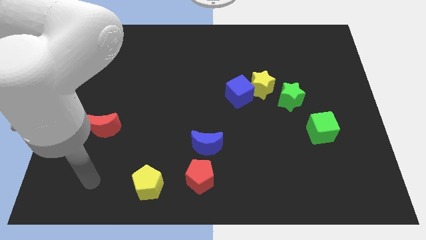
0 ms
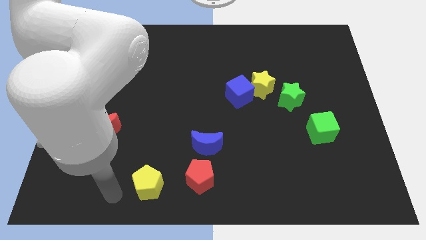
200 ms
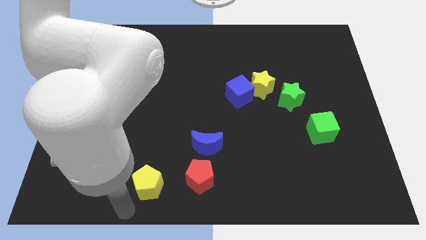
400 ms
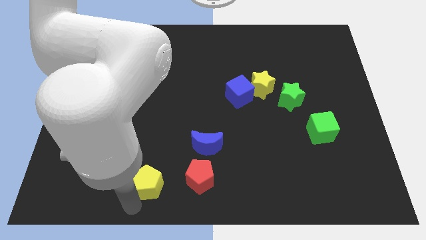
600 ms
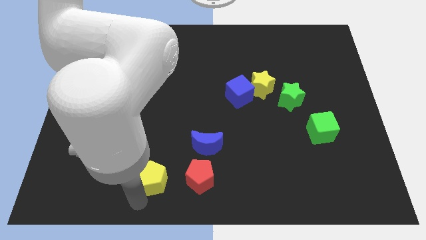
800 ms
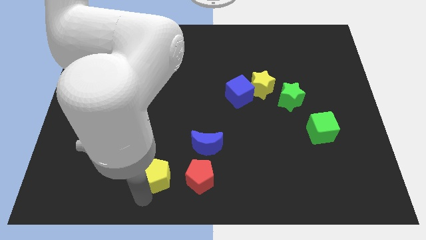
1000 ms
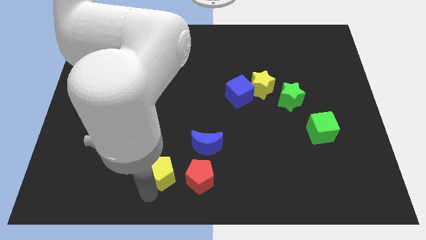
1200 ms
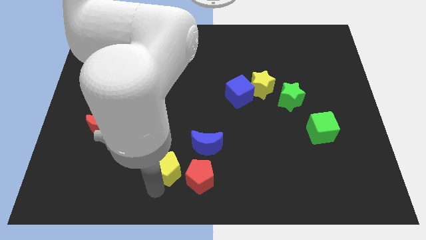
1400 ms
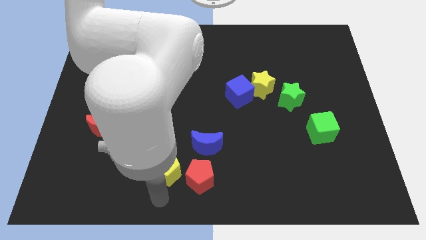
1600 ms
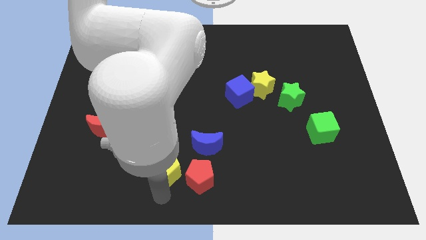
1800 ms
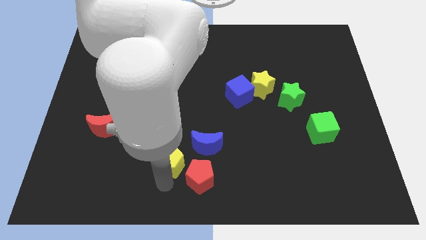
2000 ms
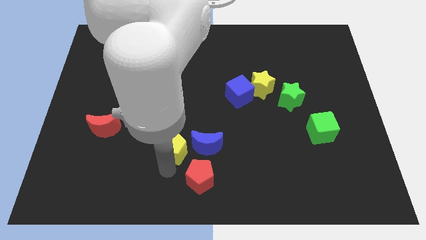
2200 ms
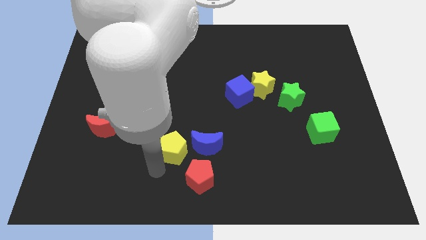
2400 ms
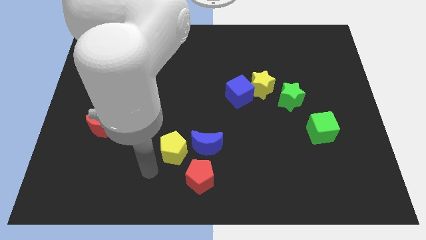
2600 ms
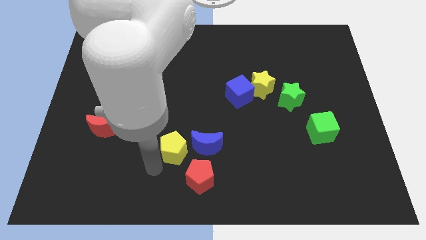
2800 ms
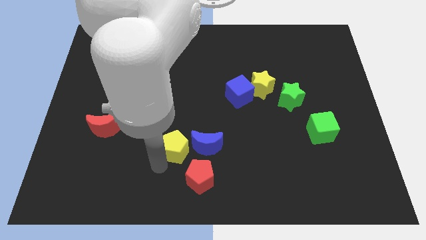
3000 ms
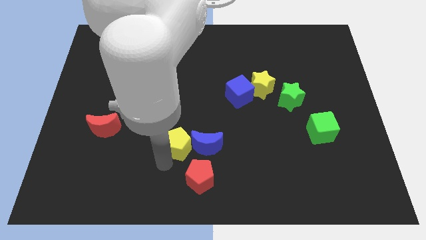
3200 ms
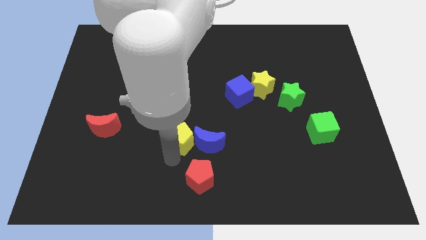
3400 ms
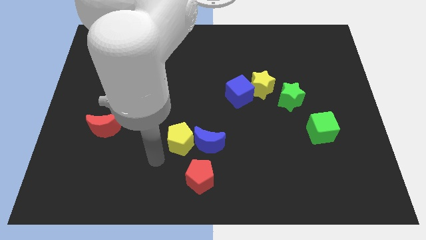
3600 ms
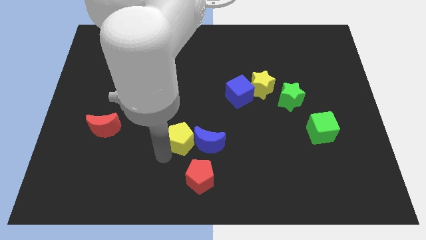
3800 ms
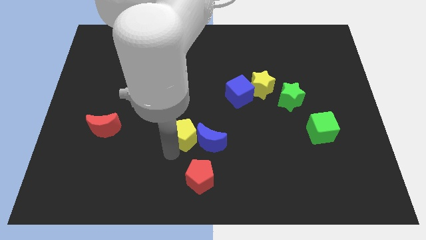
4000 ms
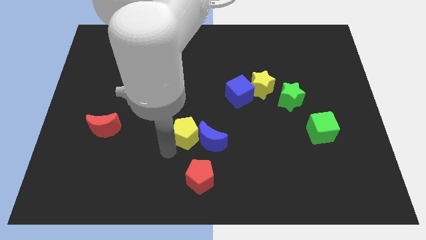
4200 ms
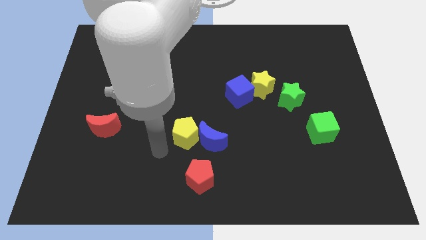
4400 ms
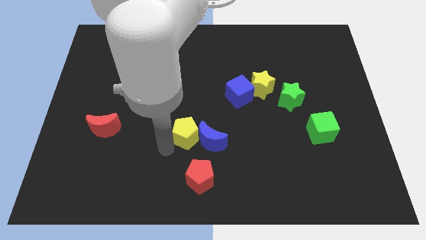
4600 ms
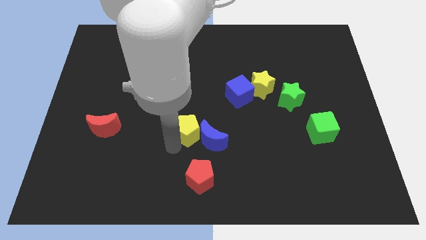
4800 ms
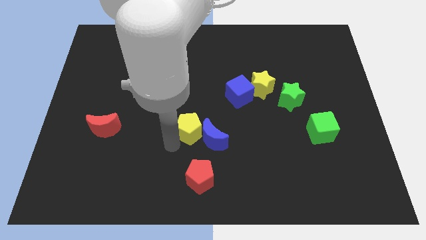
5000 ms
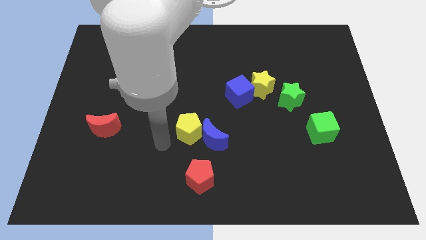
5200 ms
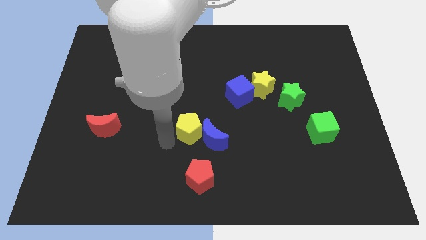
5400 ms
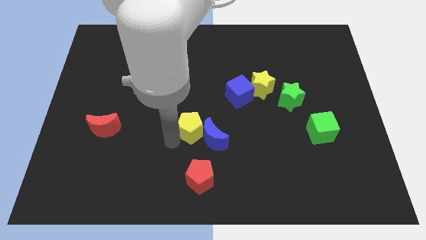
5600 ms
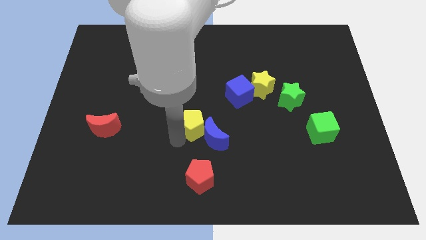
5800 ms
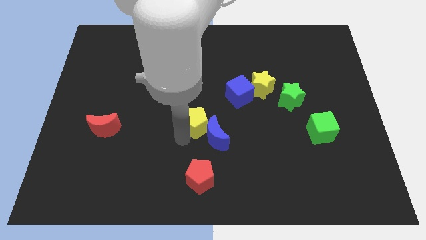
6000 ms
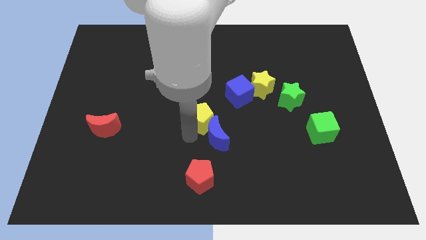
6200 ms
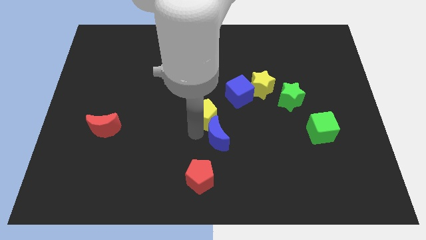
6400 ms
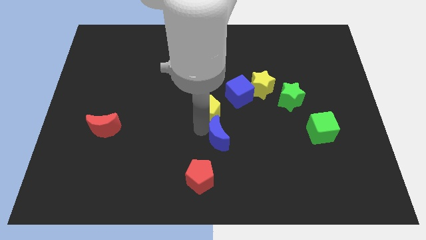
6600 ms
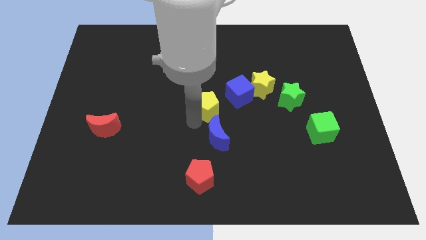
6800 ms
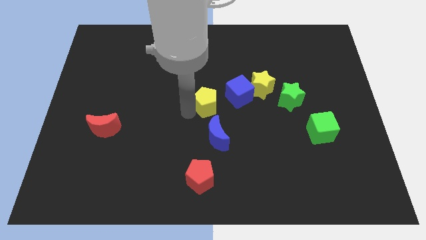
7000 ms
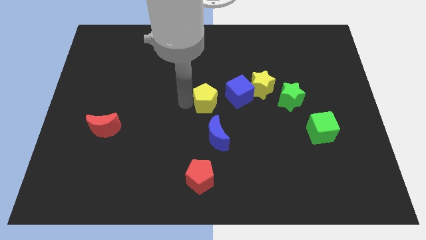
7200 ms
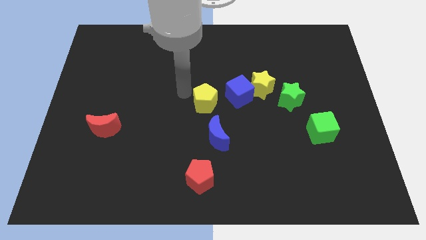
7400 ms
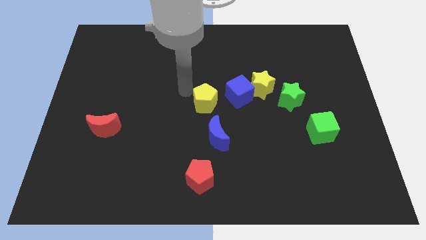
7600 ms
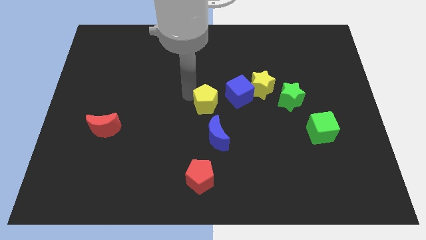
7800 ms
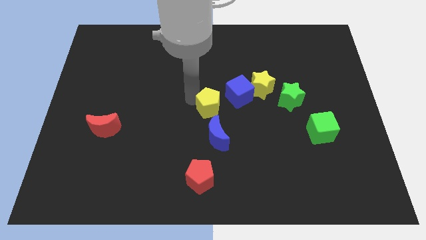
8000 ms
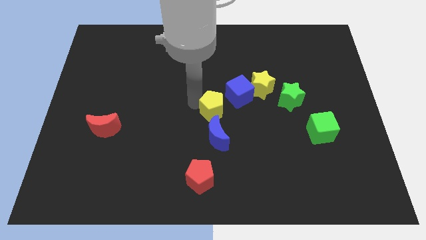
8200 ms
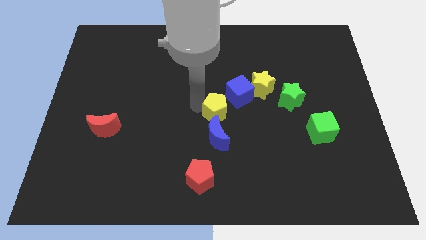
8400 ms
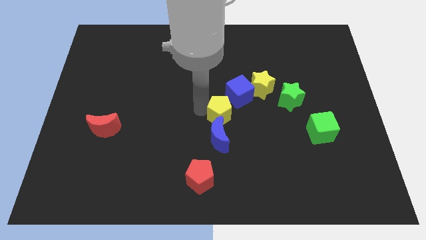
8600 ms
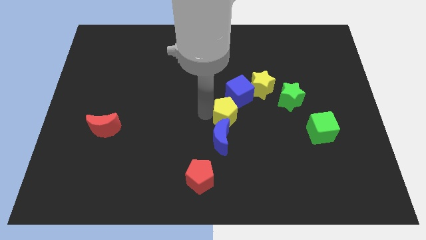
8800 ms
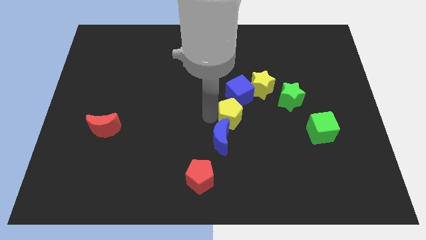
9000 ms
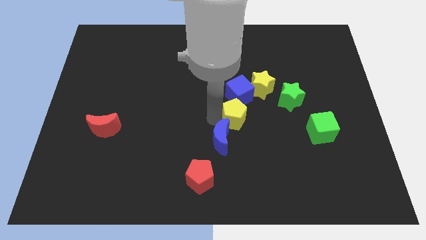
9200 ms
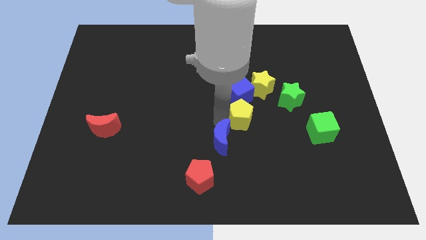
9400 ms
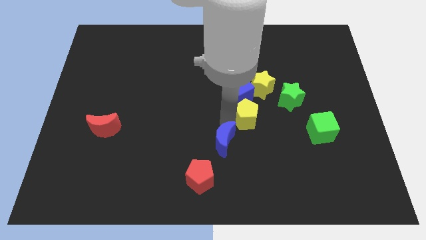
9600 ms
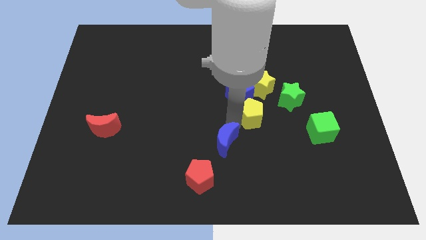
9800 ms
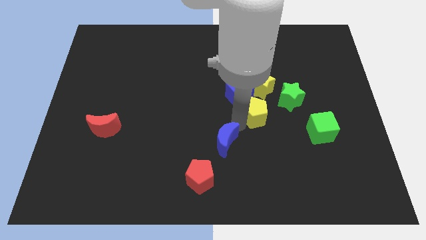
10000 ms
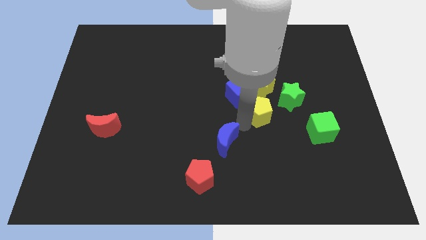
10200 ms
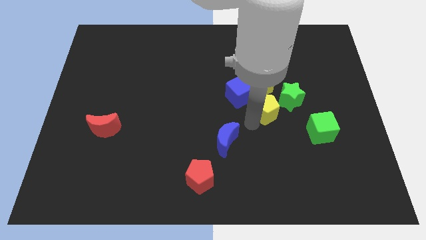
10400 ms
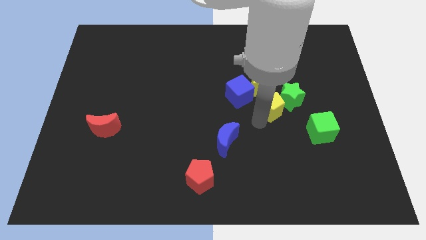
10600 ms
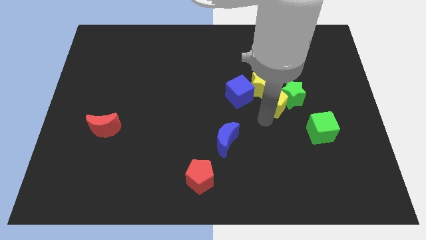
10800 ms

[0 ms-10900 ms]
put the yellow pentagon to the yellow star

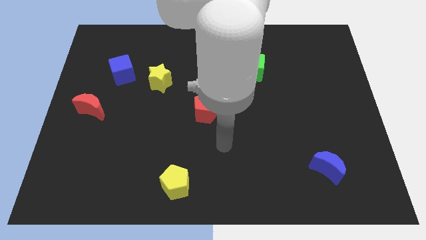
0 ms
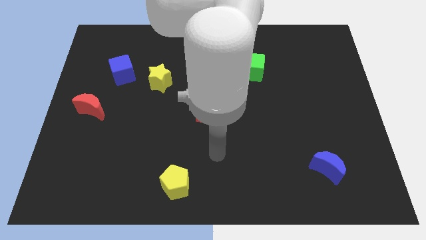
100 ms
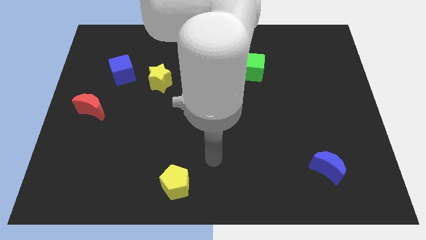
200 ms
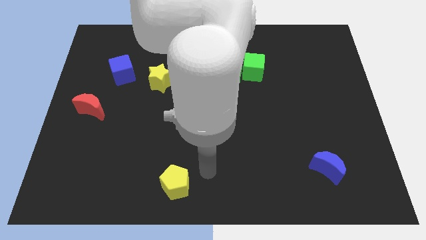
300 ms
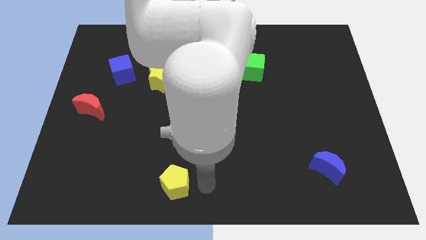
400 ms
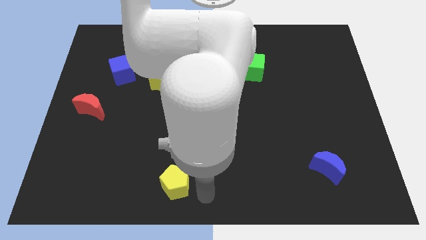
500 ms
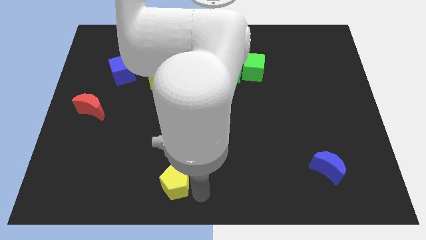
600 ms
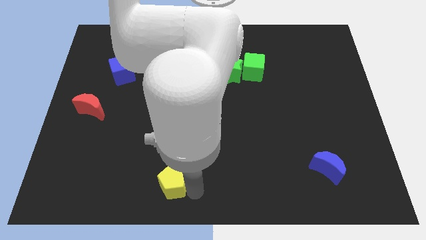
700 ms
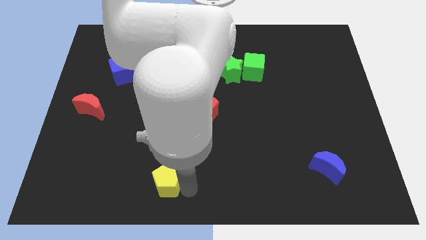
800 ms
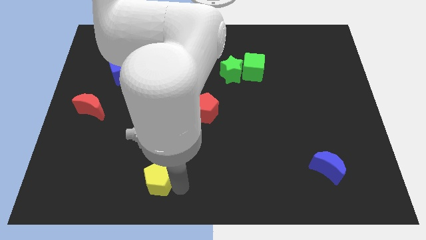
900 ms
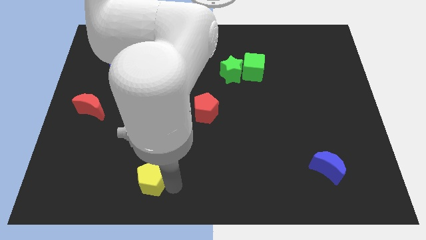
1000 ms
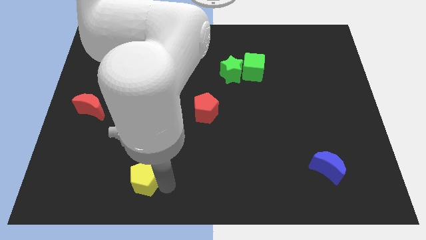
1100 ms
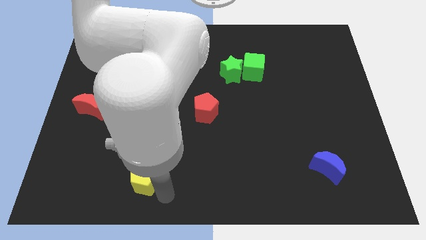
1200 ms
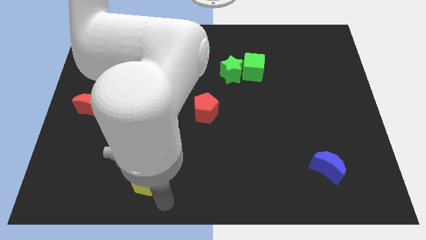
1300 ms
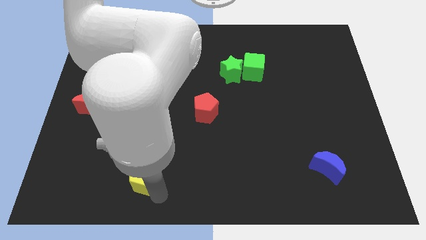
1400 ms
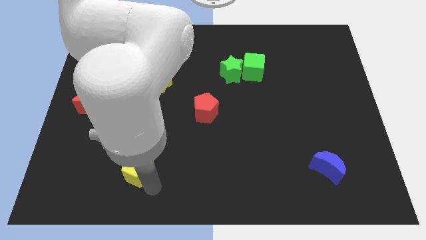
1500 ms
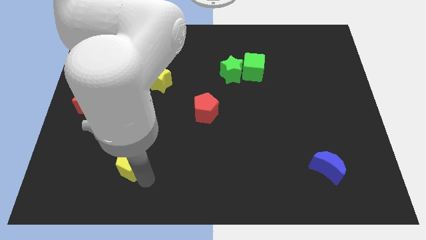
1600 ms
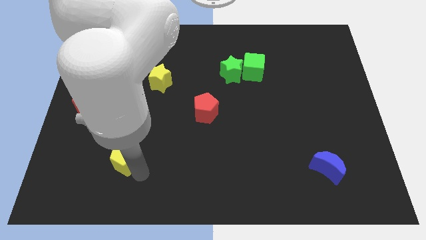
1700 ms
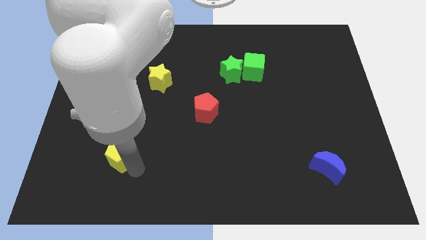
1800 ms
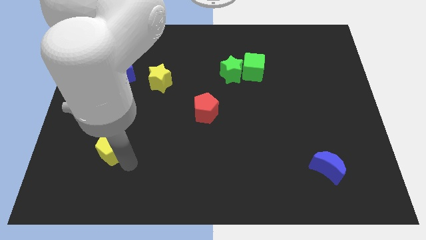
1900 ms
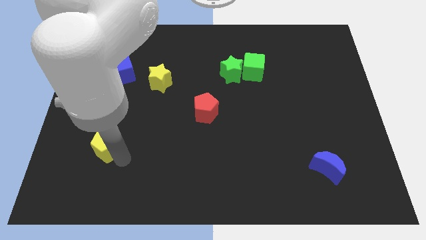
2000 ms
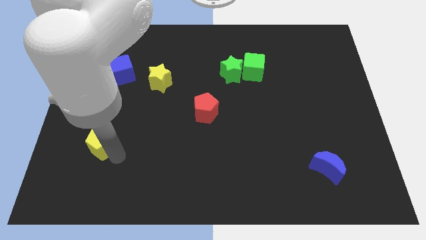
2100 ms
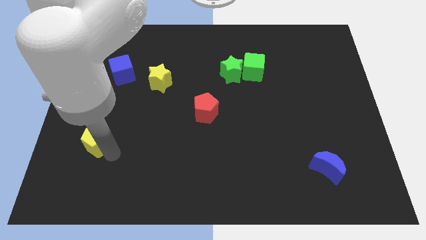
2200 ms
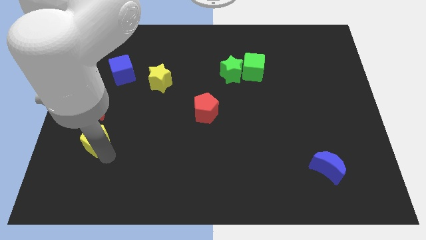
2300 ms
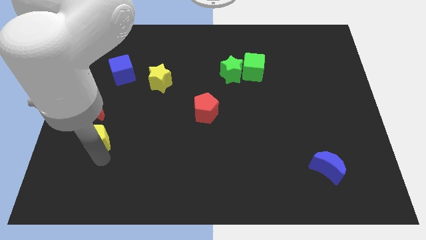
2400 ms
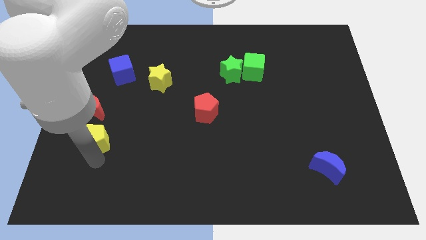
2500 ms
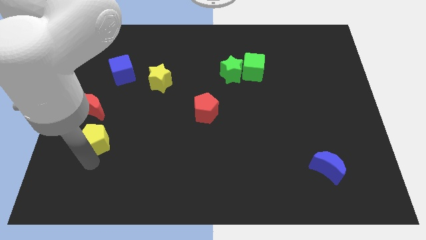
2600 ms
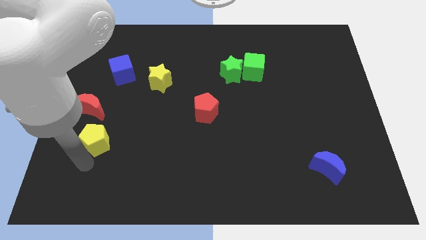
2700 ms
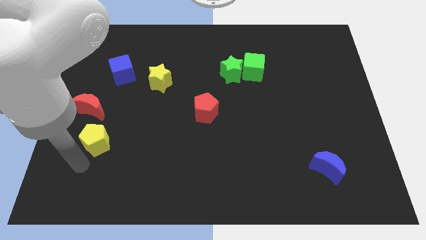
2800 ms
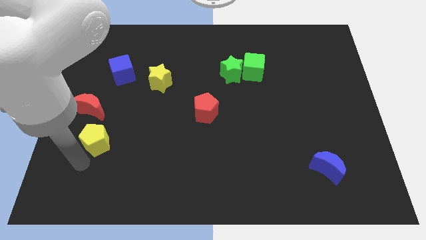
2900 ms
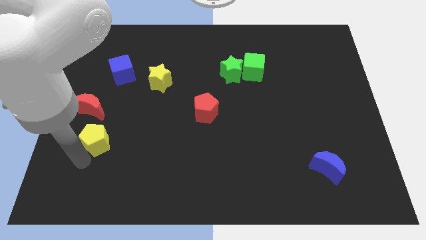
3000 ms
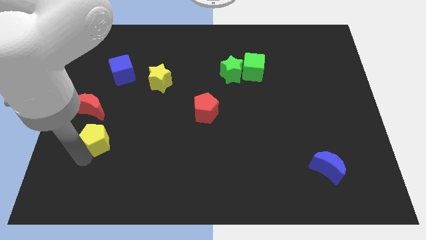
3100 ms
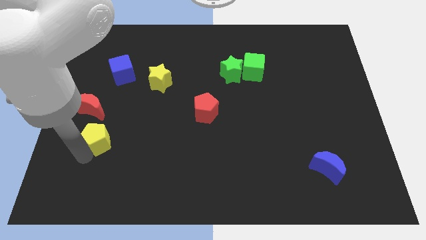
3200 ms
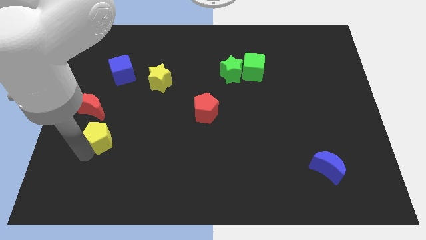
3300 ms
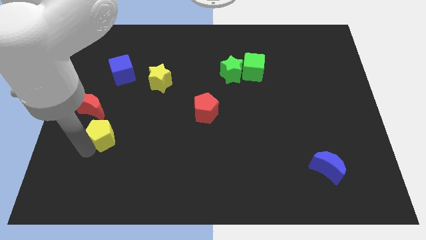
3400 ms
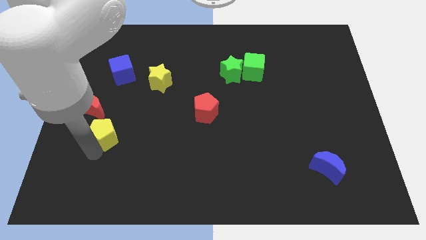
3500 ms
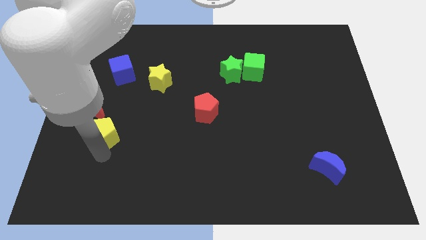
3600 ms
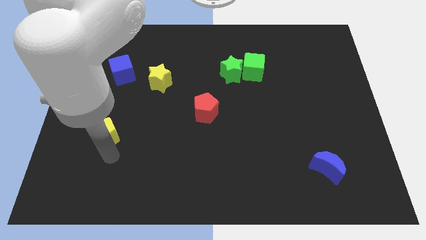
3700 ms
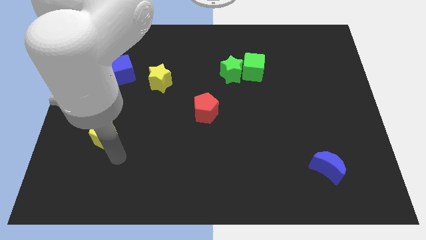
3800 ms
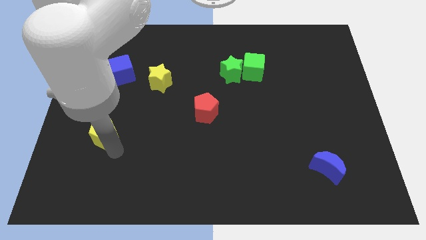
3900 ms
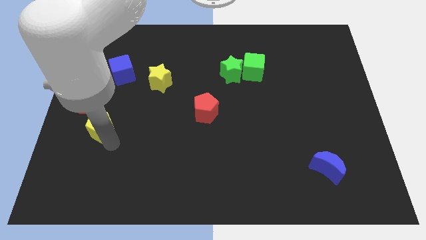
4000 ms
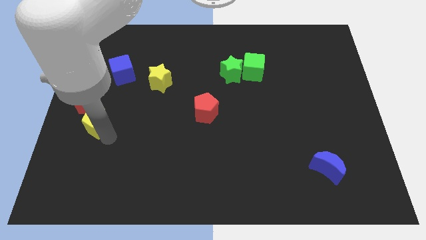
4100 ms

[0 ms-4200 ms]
slide the yellow pentagon to the red moon
